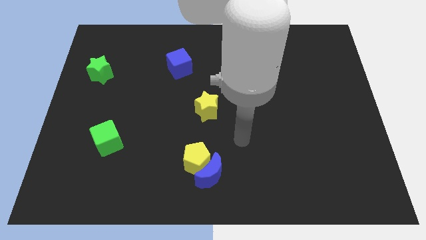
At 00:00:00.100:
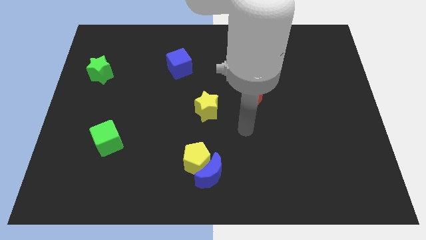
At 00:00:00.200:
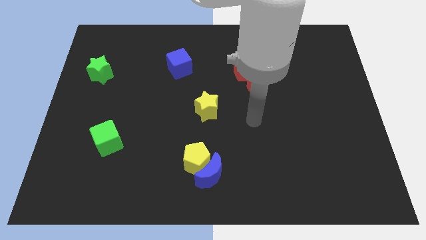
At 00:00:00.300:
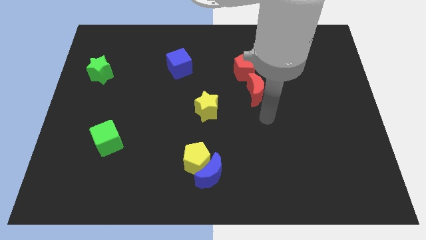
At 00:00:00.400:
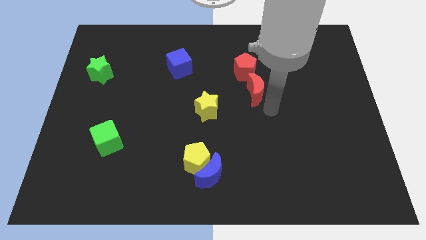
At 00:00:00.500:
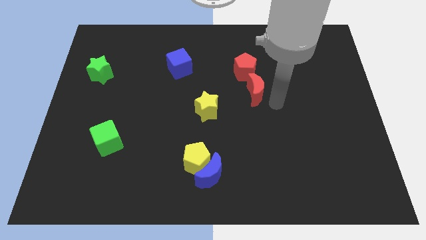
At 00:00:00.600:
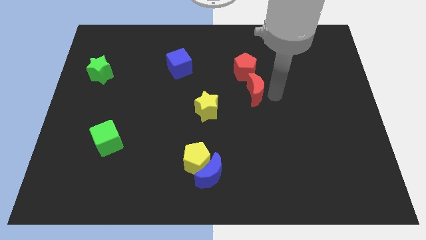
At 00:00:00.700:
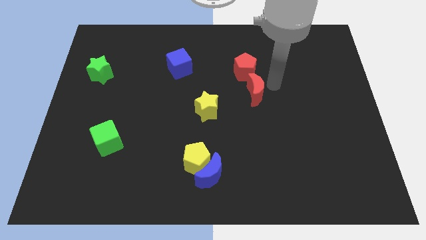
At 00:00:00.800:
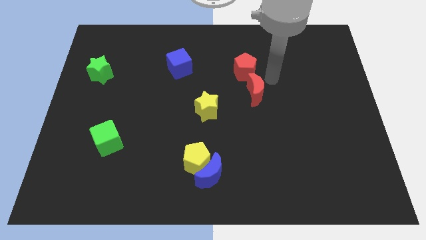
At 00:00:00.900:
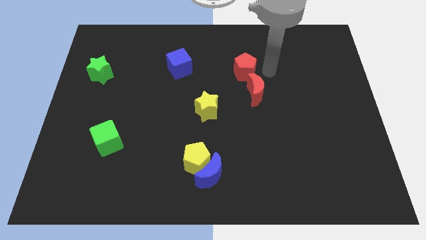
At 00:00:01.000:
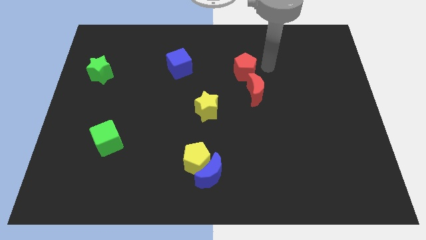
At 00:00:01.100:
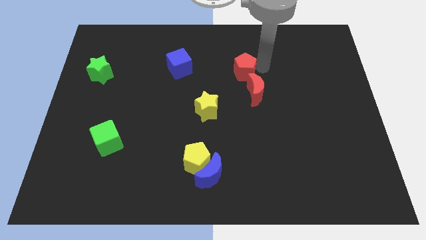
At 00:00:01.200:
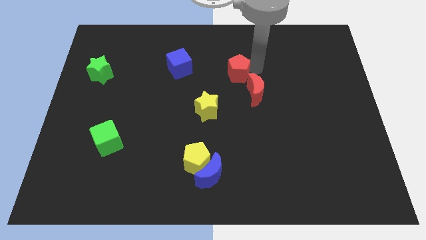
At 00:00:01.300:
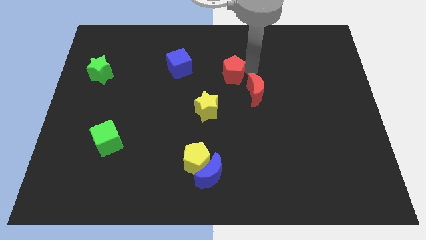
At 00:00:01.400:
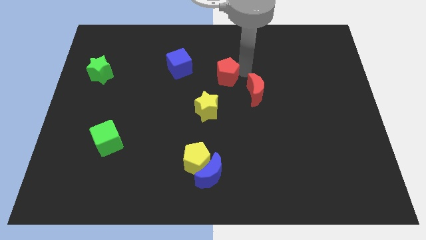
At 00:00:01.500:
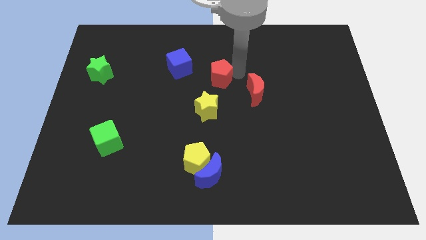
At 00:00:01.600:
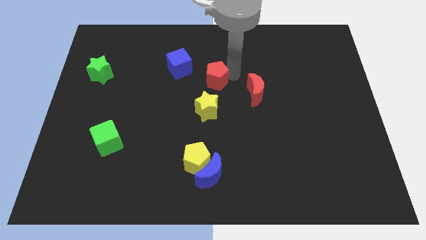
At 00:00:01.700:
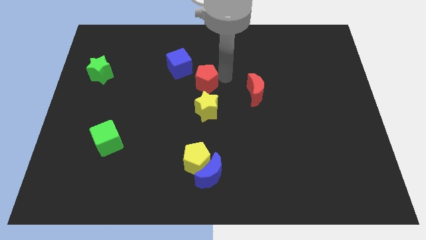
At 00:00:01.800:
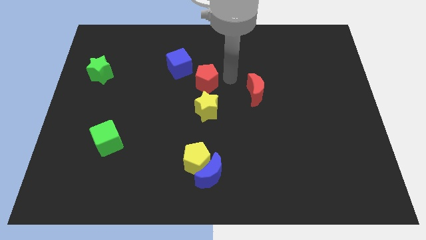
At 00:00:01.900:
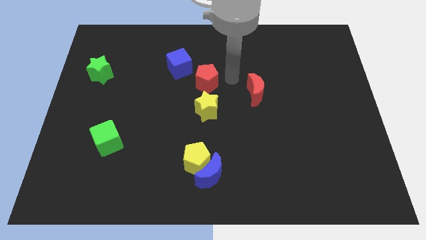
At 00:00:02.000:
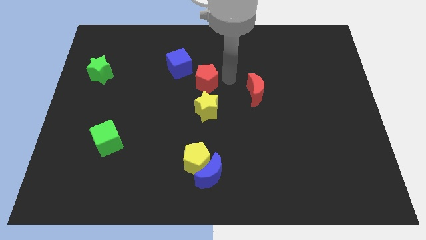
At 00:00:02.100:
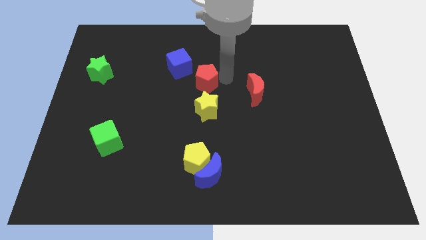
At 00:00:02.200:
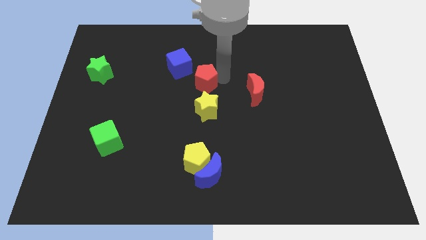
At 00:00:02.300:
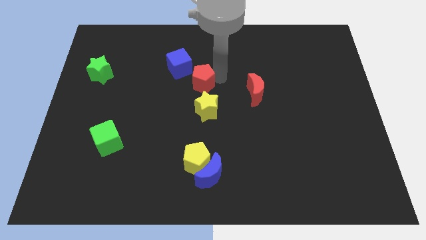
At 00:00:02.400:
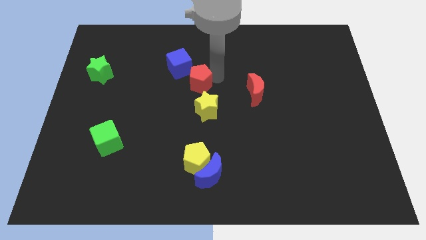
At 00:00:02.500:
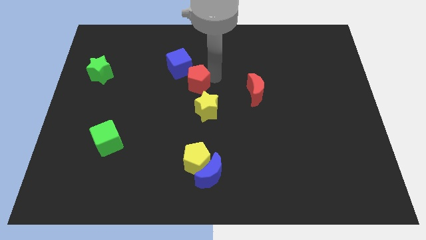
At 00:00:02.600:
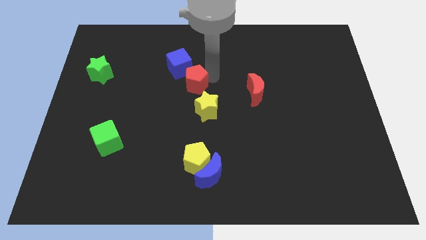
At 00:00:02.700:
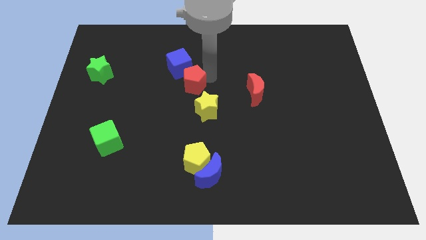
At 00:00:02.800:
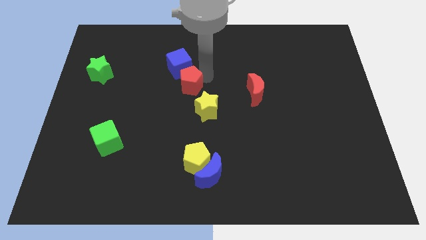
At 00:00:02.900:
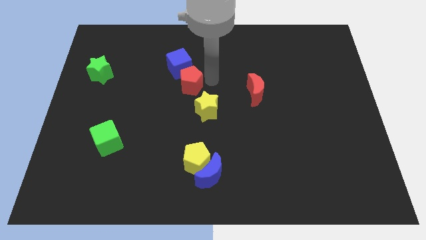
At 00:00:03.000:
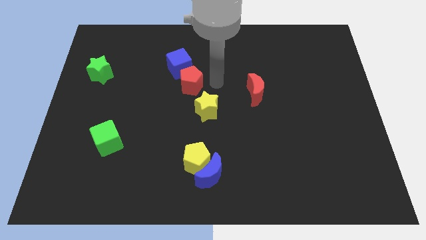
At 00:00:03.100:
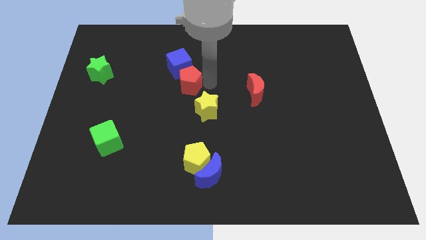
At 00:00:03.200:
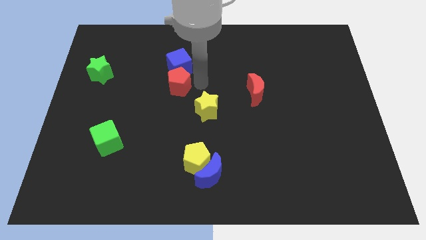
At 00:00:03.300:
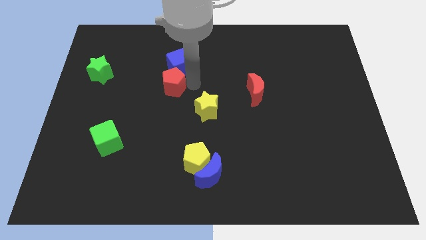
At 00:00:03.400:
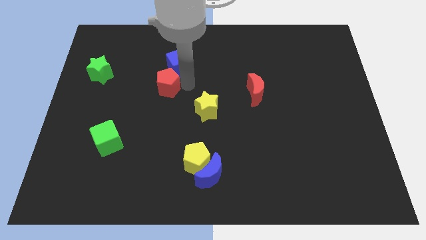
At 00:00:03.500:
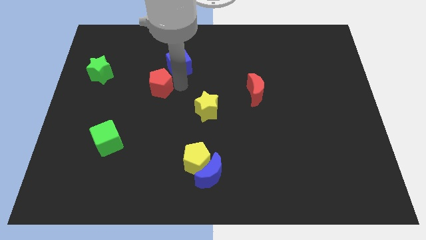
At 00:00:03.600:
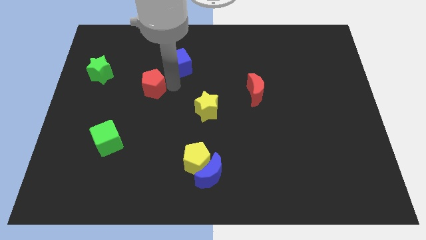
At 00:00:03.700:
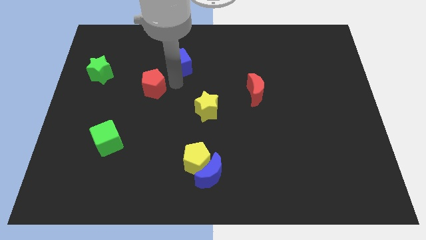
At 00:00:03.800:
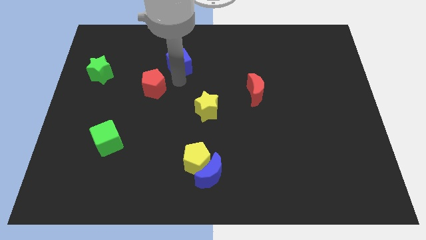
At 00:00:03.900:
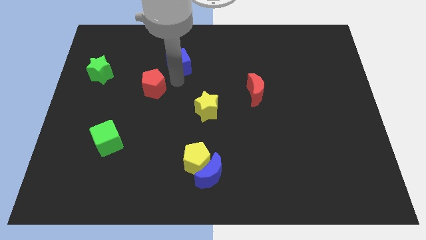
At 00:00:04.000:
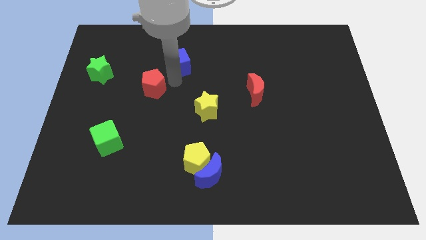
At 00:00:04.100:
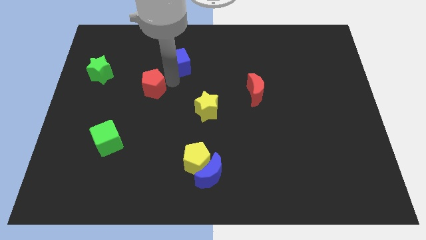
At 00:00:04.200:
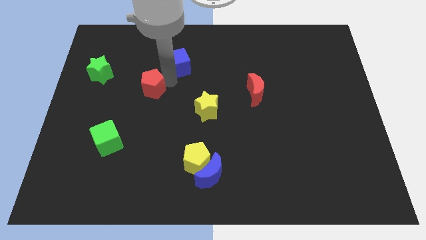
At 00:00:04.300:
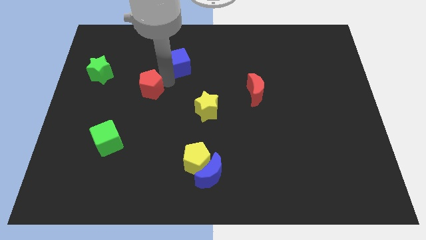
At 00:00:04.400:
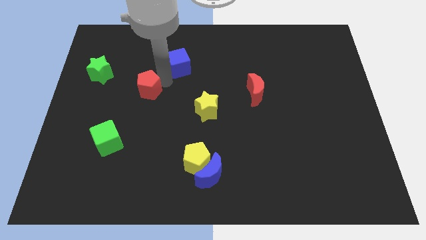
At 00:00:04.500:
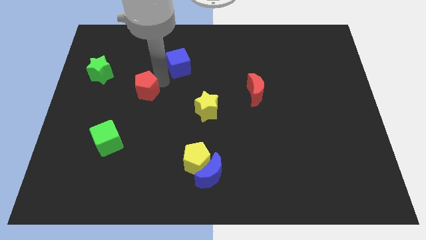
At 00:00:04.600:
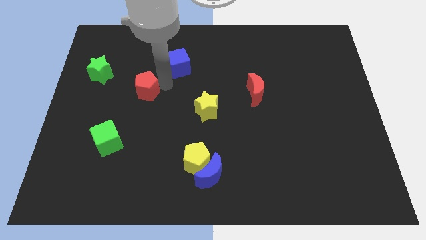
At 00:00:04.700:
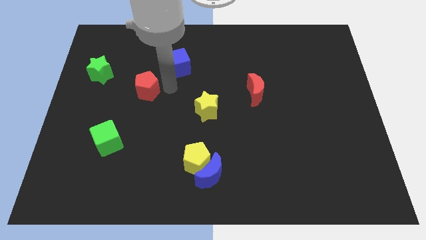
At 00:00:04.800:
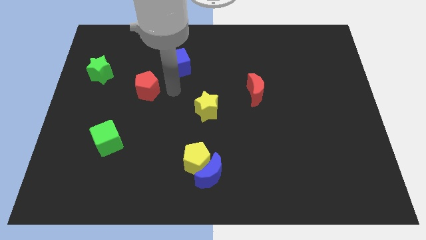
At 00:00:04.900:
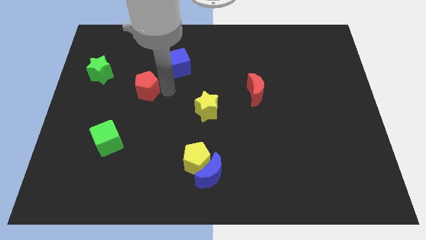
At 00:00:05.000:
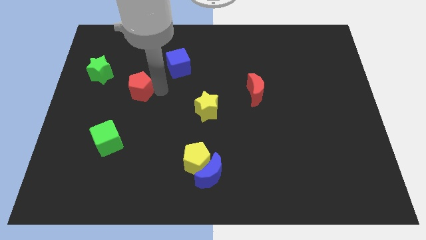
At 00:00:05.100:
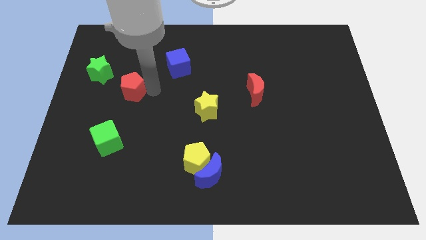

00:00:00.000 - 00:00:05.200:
move the red pentagon diagonally down and to the right of the green star

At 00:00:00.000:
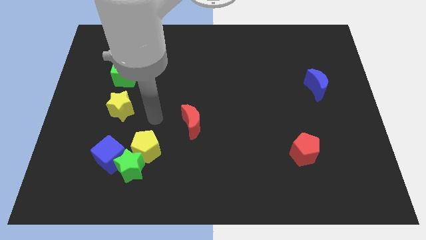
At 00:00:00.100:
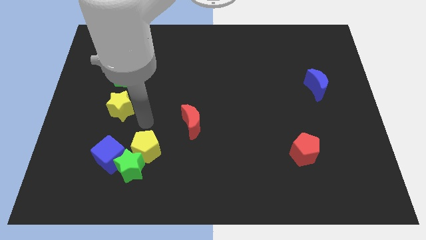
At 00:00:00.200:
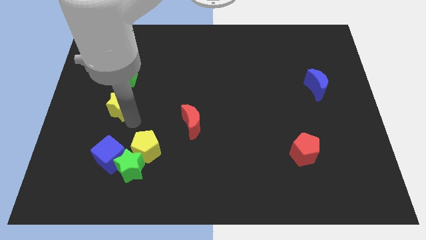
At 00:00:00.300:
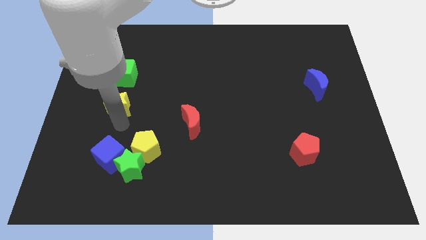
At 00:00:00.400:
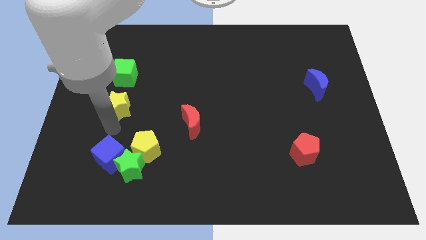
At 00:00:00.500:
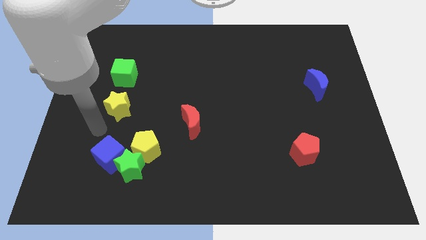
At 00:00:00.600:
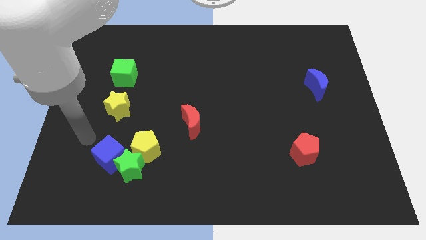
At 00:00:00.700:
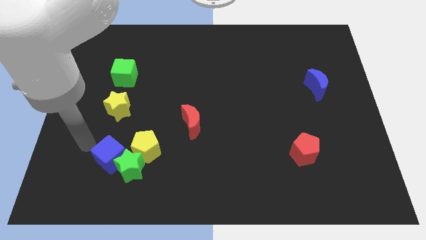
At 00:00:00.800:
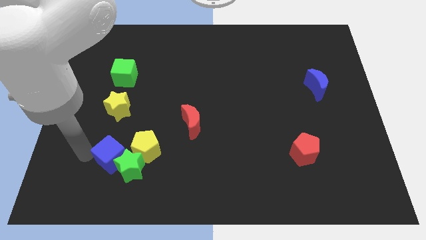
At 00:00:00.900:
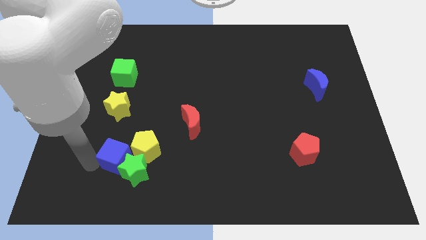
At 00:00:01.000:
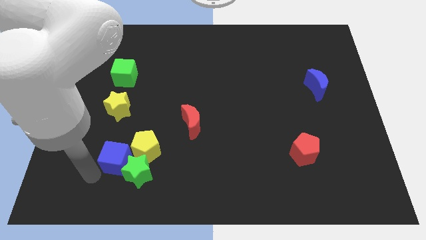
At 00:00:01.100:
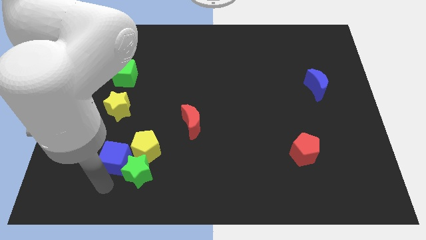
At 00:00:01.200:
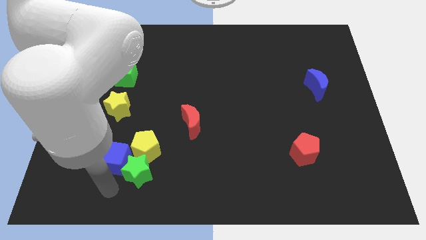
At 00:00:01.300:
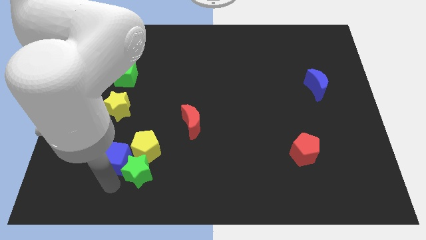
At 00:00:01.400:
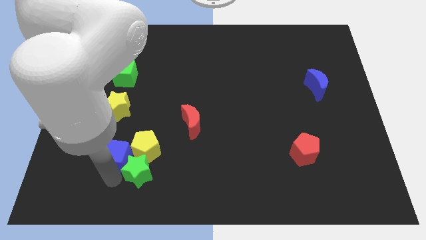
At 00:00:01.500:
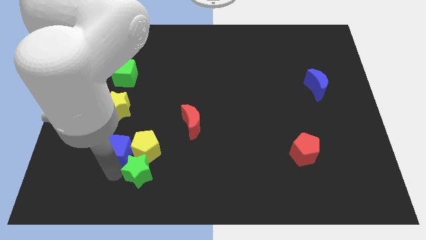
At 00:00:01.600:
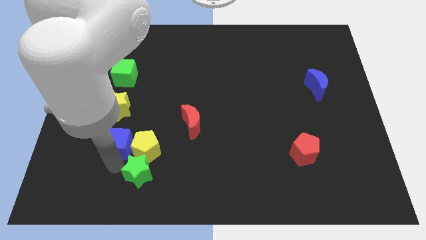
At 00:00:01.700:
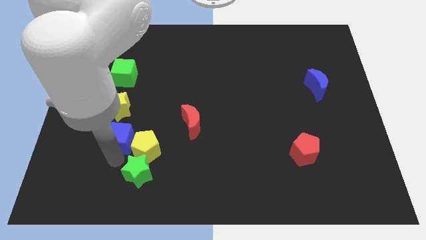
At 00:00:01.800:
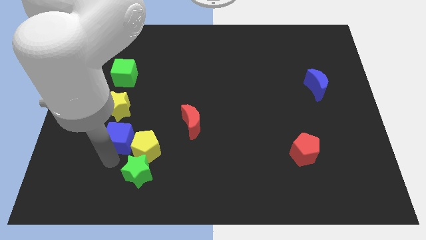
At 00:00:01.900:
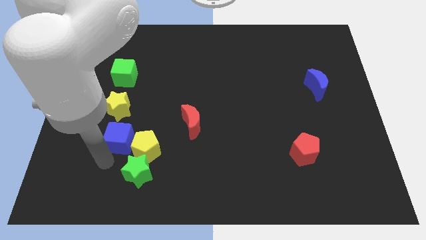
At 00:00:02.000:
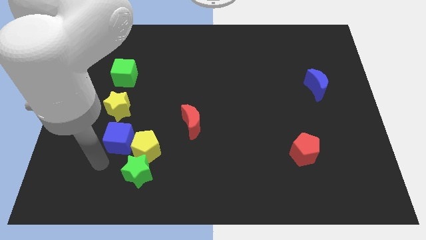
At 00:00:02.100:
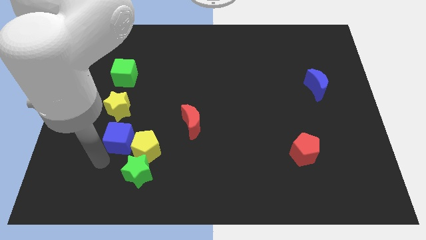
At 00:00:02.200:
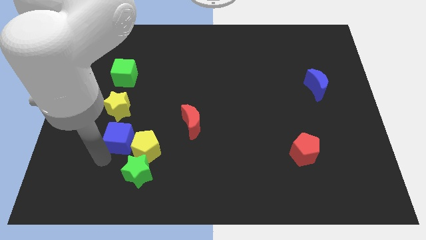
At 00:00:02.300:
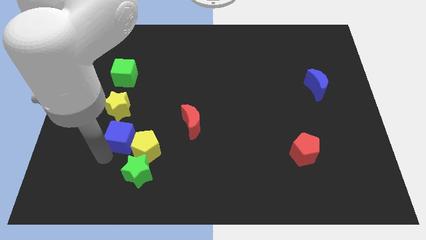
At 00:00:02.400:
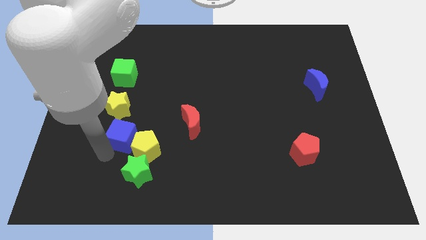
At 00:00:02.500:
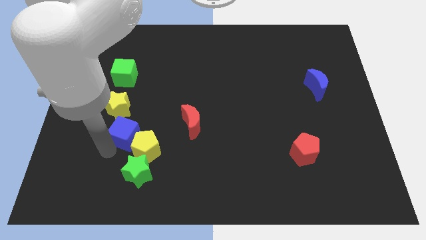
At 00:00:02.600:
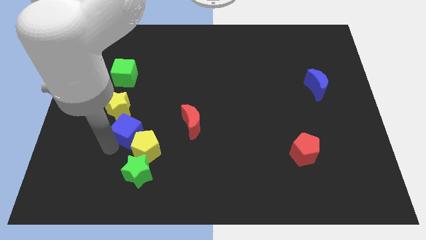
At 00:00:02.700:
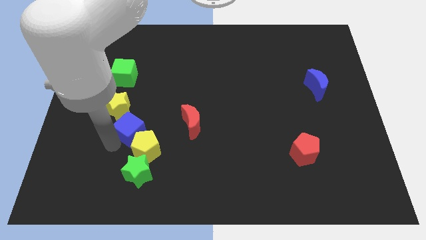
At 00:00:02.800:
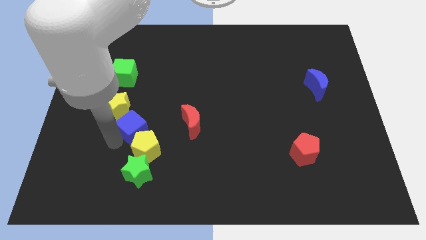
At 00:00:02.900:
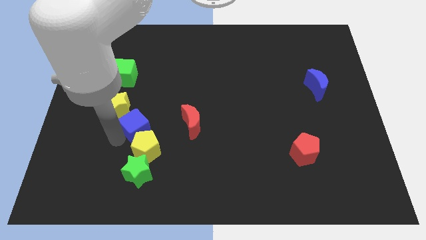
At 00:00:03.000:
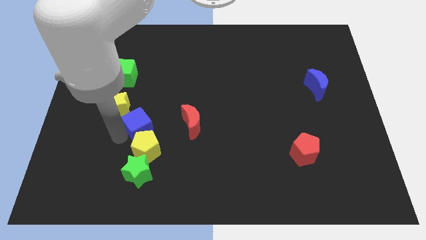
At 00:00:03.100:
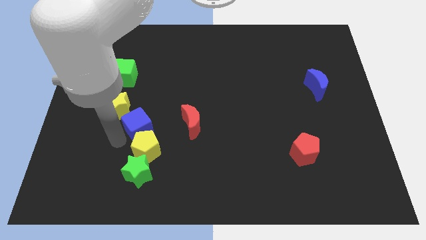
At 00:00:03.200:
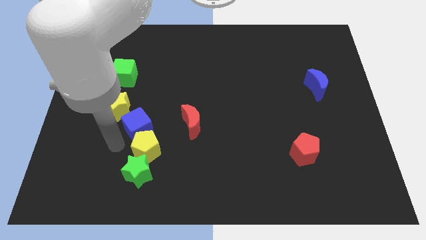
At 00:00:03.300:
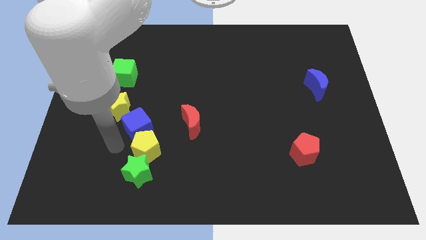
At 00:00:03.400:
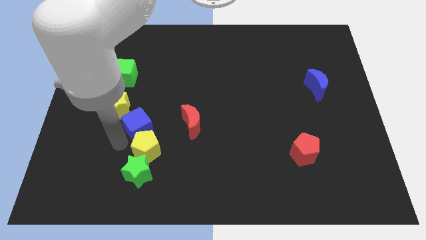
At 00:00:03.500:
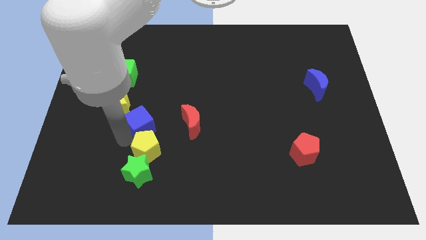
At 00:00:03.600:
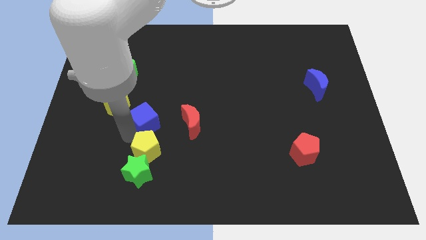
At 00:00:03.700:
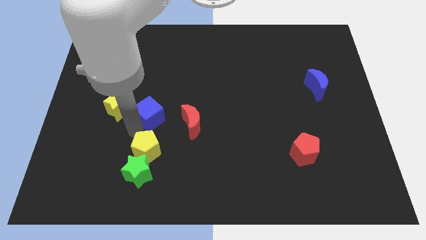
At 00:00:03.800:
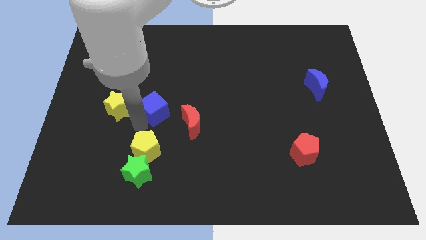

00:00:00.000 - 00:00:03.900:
push the blue cube diagonally up and to the left of the red moon
